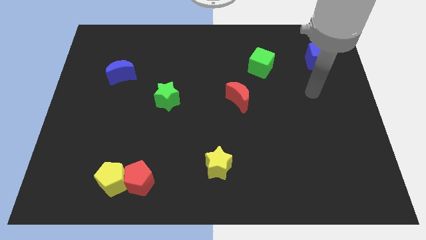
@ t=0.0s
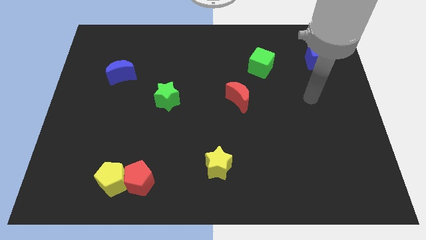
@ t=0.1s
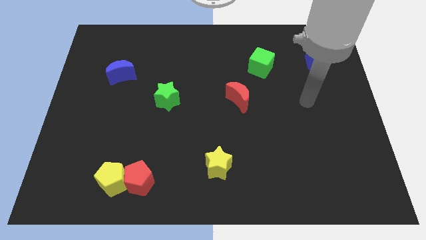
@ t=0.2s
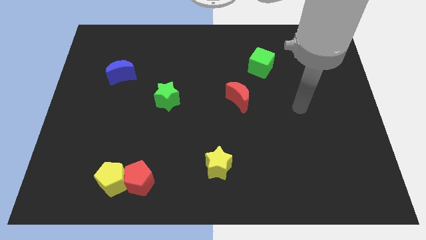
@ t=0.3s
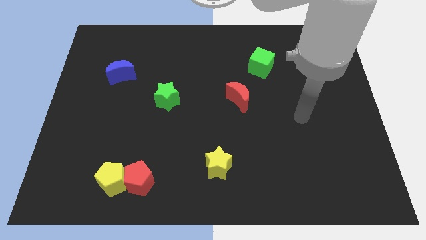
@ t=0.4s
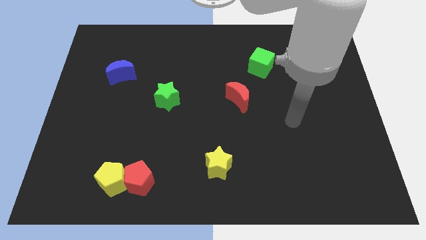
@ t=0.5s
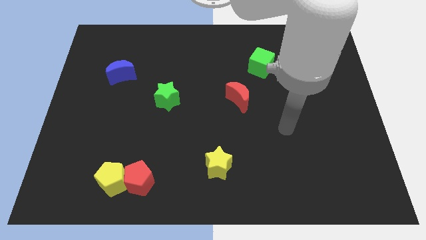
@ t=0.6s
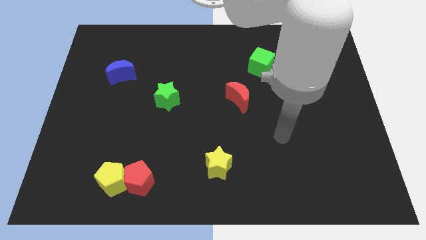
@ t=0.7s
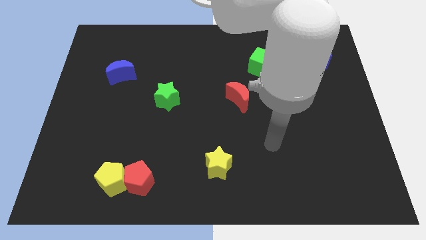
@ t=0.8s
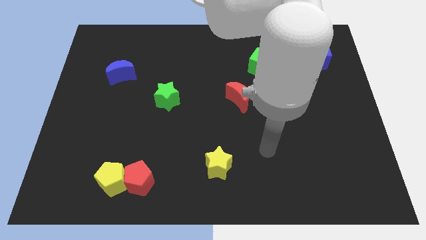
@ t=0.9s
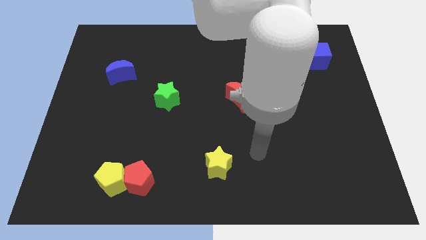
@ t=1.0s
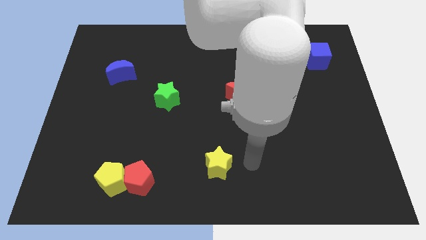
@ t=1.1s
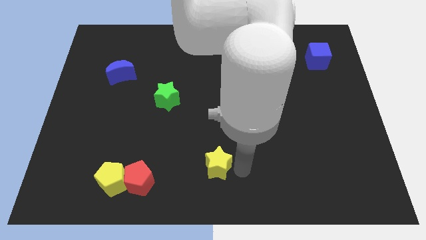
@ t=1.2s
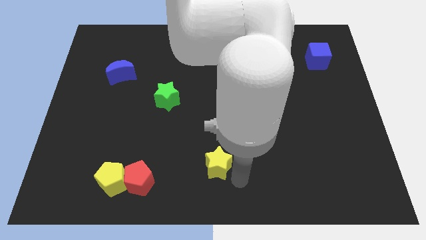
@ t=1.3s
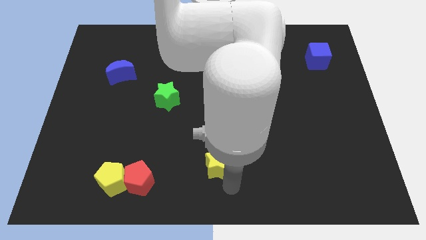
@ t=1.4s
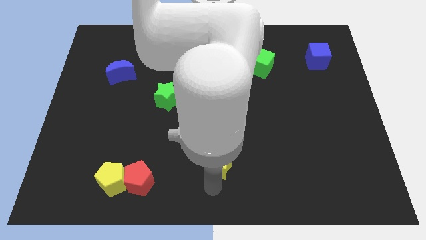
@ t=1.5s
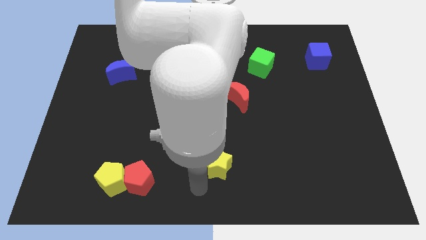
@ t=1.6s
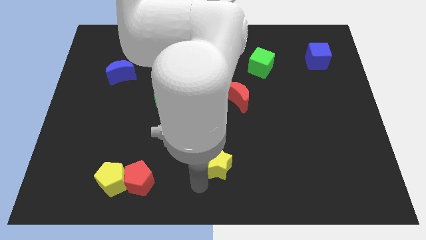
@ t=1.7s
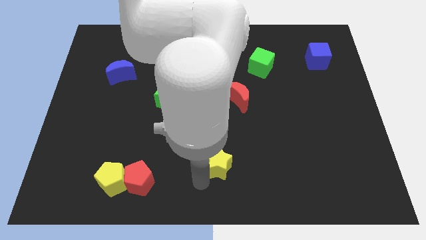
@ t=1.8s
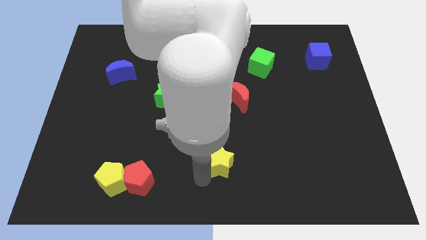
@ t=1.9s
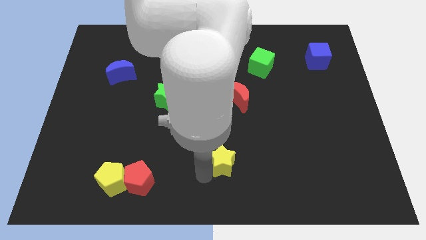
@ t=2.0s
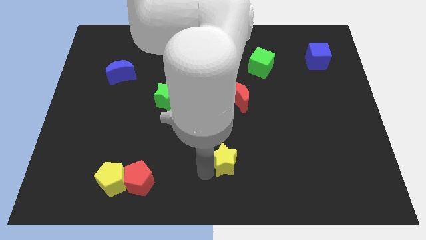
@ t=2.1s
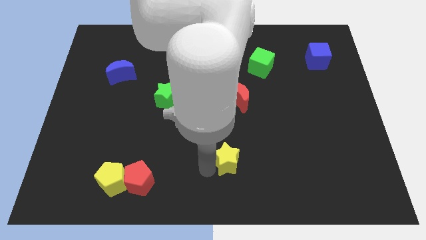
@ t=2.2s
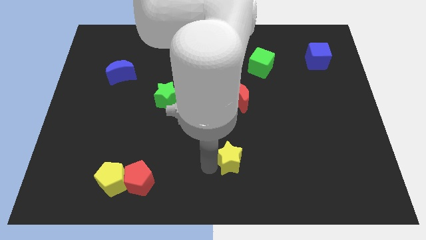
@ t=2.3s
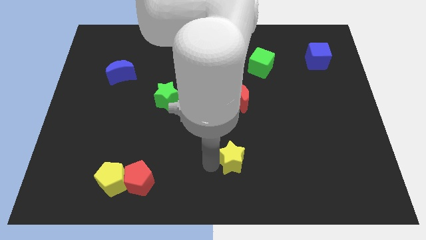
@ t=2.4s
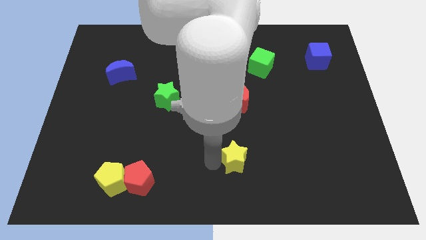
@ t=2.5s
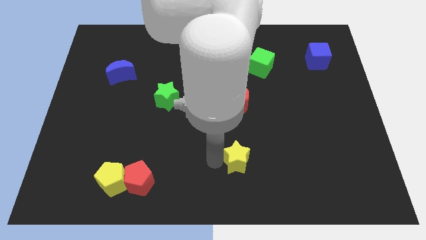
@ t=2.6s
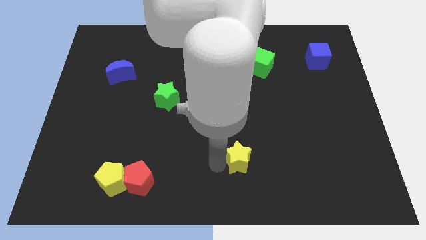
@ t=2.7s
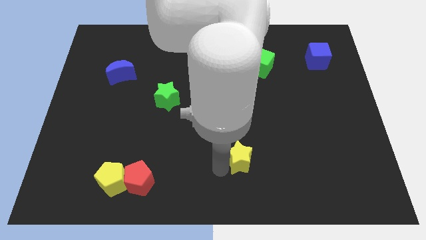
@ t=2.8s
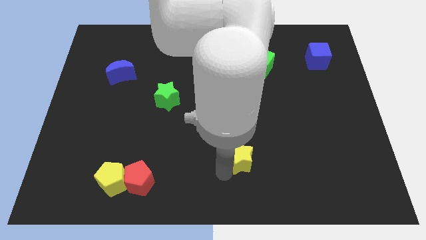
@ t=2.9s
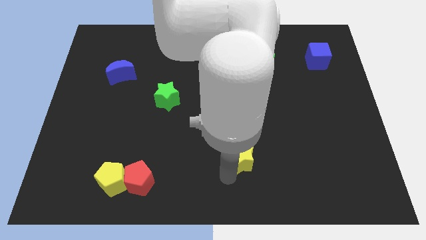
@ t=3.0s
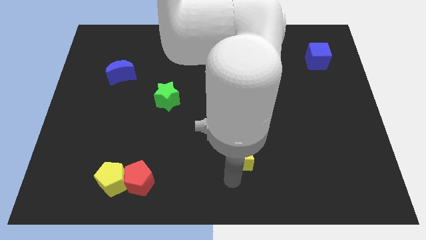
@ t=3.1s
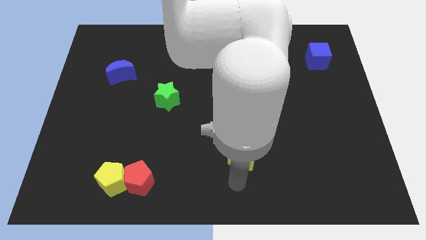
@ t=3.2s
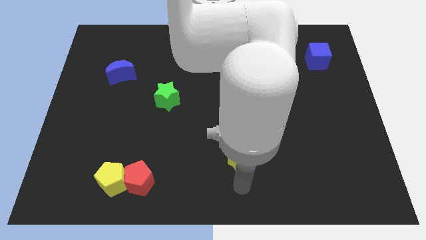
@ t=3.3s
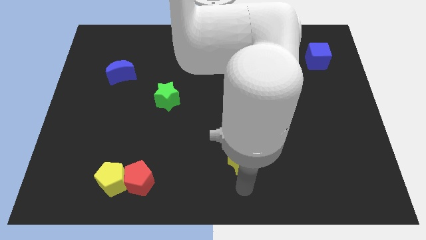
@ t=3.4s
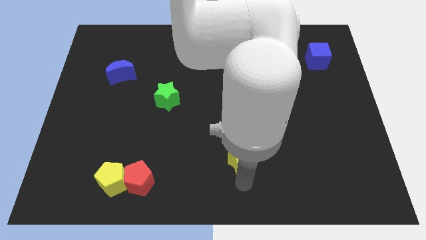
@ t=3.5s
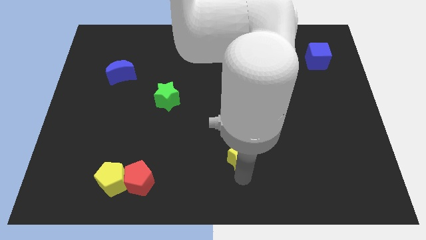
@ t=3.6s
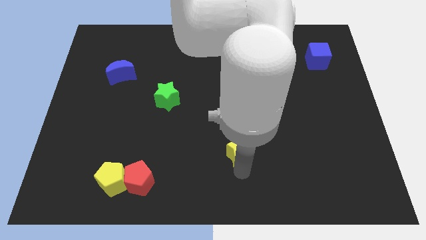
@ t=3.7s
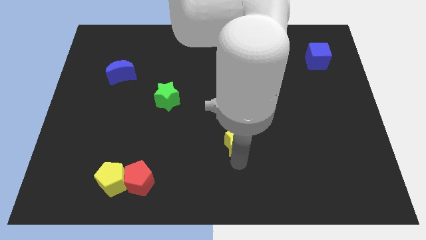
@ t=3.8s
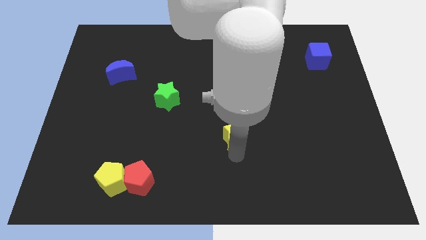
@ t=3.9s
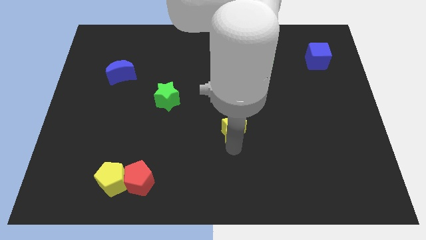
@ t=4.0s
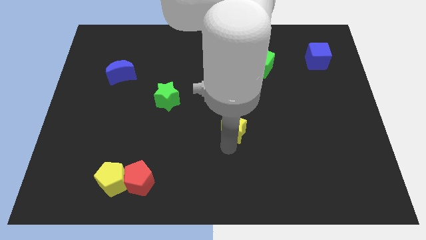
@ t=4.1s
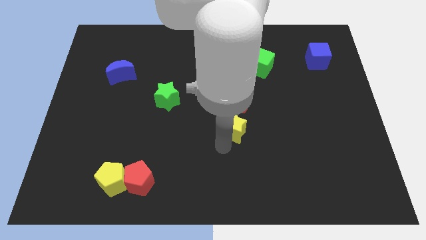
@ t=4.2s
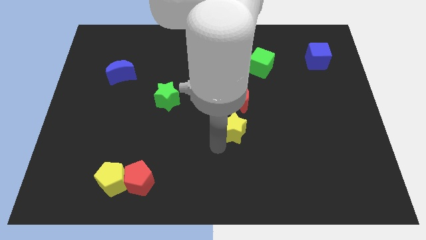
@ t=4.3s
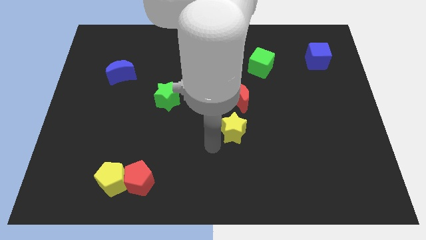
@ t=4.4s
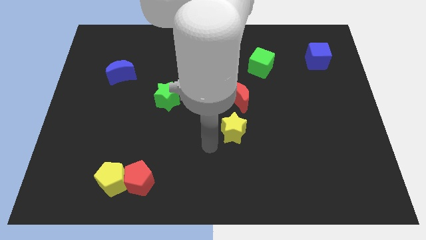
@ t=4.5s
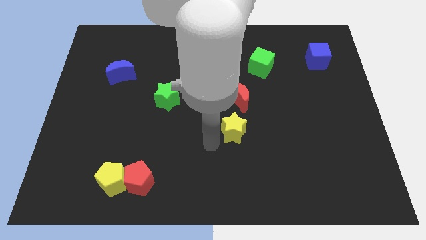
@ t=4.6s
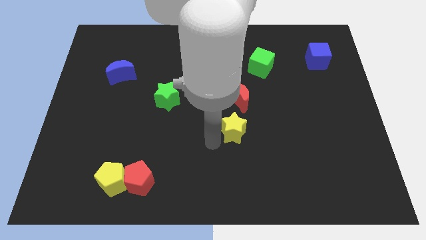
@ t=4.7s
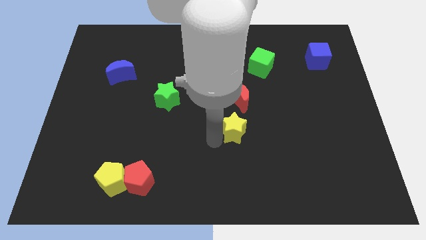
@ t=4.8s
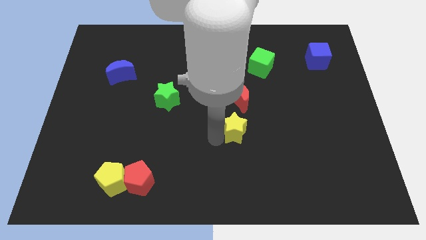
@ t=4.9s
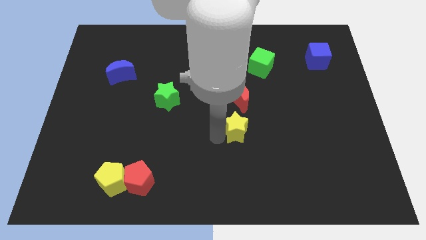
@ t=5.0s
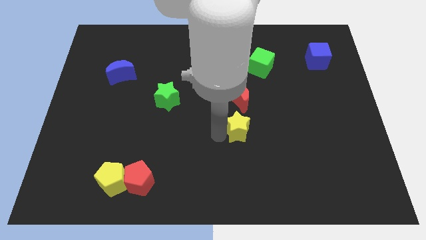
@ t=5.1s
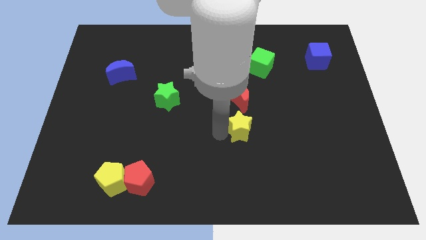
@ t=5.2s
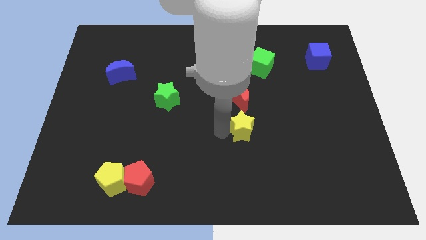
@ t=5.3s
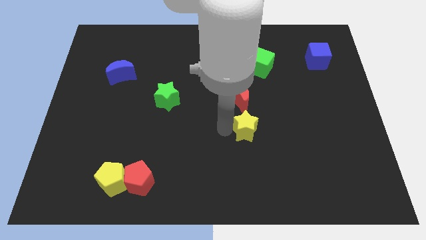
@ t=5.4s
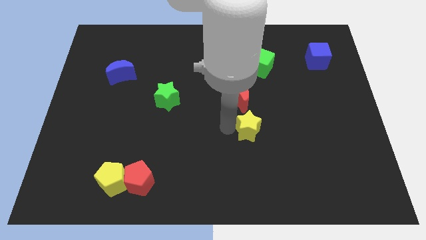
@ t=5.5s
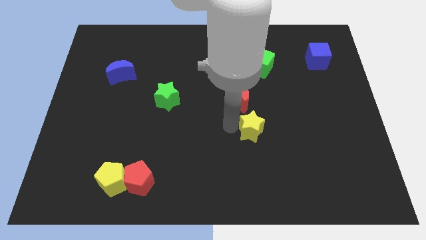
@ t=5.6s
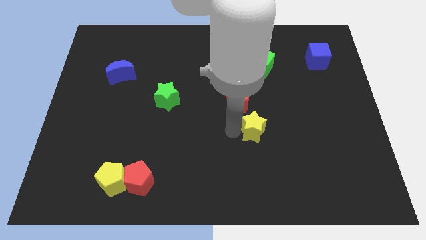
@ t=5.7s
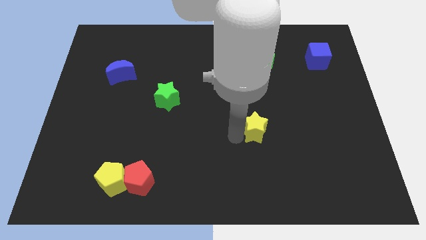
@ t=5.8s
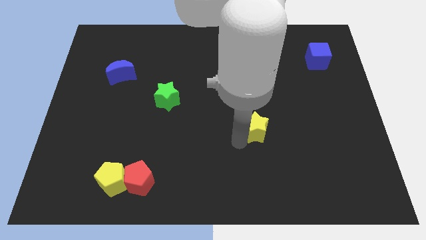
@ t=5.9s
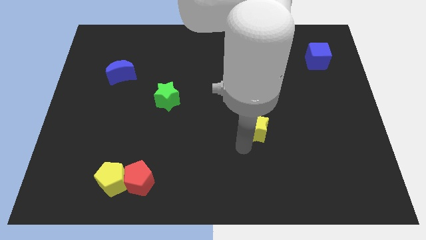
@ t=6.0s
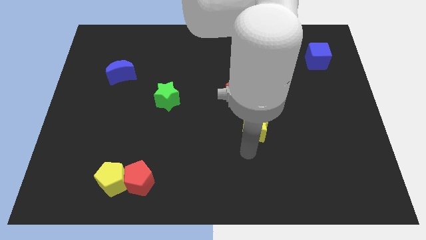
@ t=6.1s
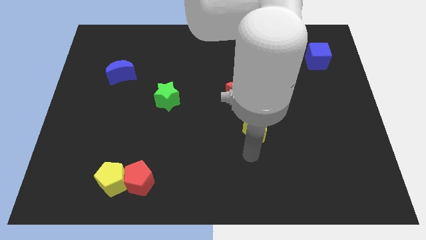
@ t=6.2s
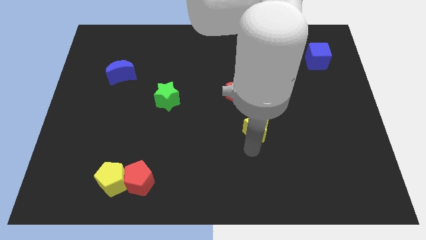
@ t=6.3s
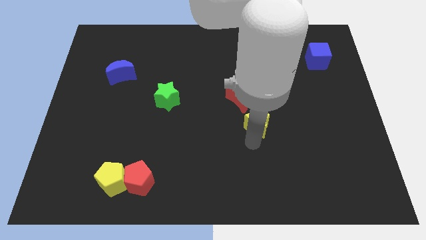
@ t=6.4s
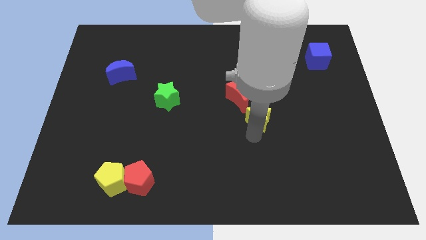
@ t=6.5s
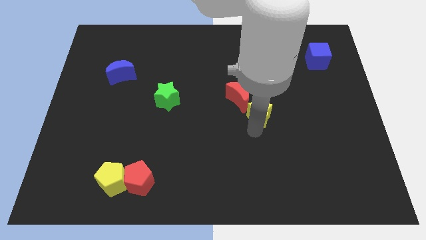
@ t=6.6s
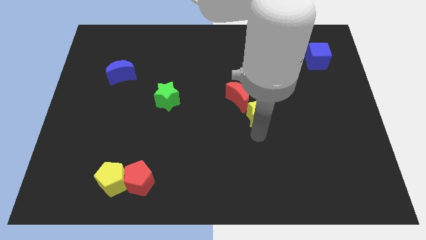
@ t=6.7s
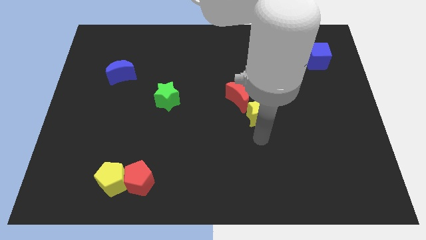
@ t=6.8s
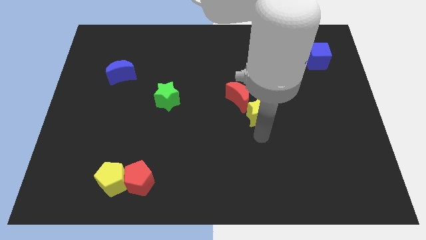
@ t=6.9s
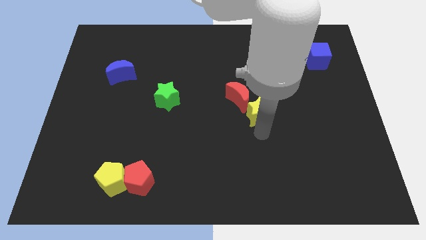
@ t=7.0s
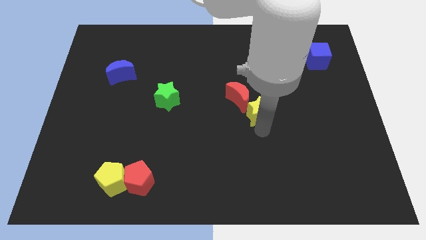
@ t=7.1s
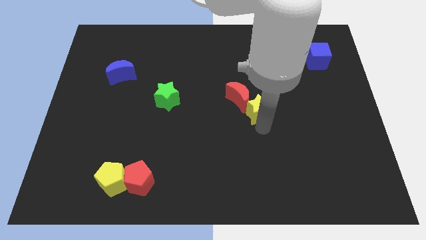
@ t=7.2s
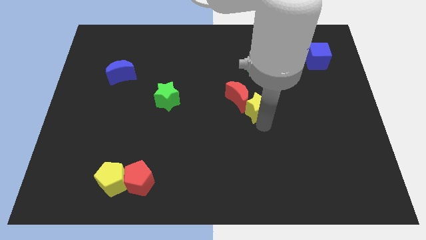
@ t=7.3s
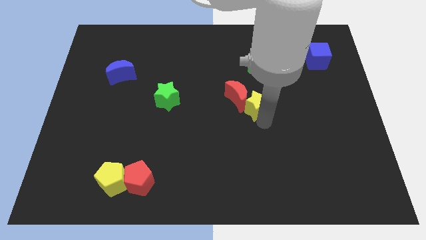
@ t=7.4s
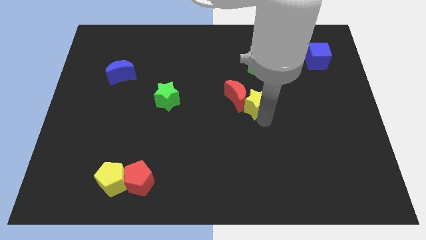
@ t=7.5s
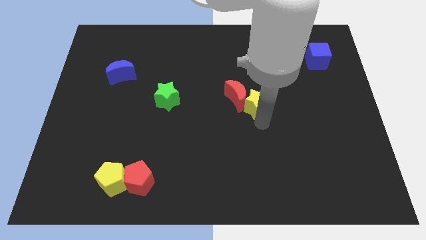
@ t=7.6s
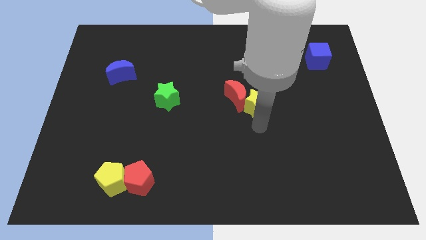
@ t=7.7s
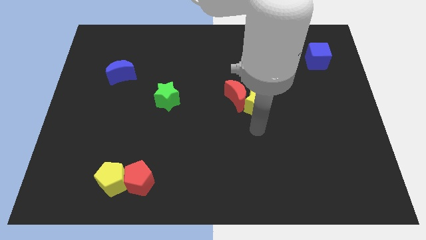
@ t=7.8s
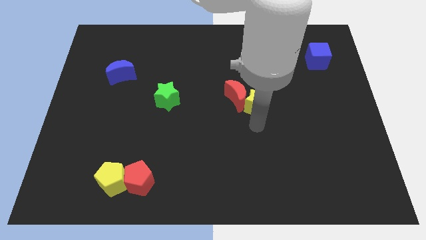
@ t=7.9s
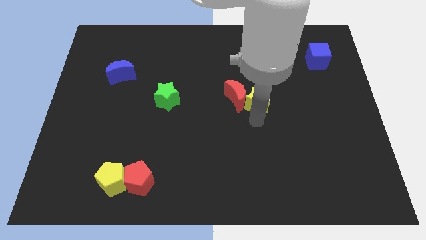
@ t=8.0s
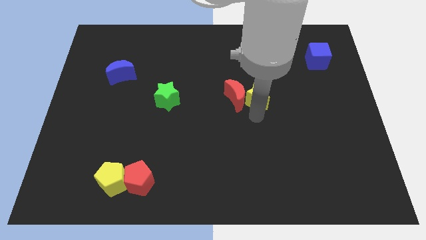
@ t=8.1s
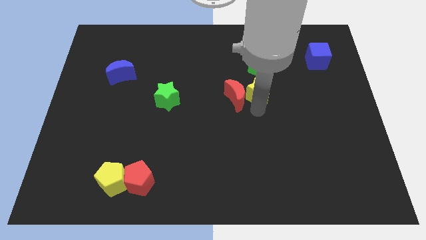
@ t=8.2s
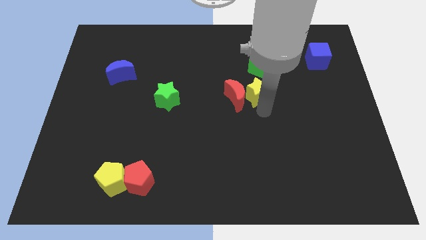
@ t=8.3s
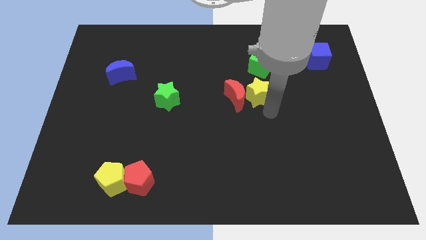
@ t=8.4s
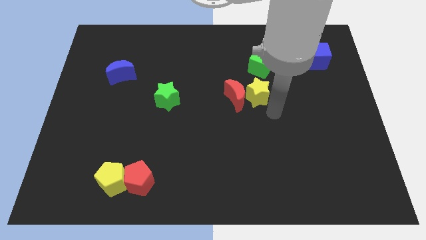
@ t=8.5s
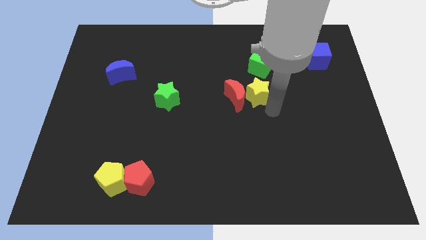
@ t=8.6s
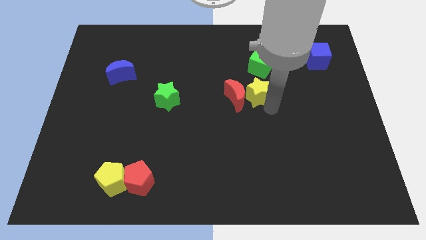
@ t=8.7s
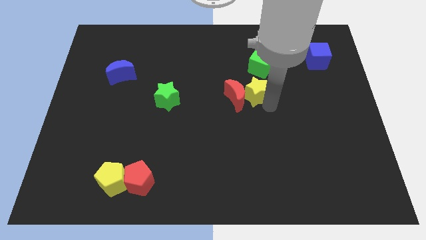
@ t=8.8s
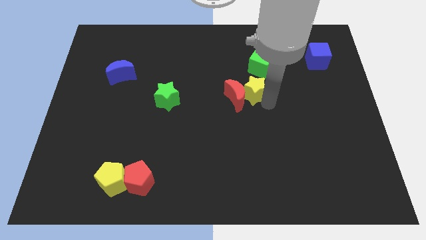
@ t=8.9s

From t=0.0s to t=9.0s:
put the yellow star to the bottom left side of the green cube
